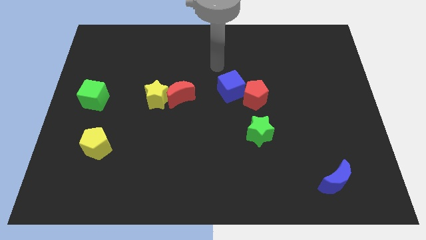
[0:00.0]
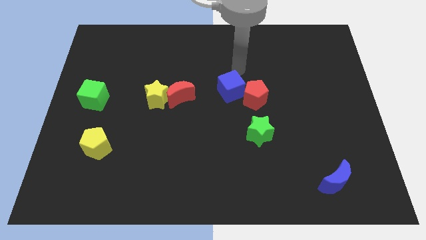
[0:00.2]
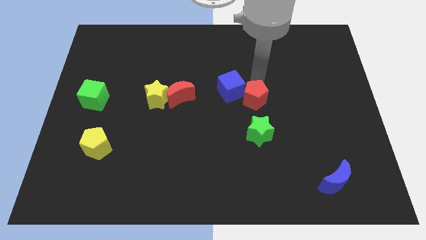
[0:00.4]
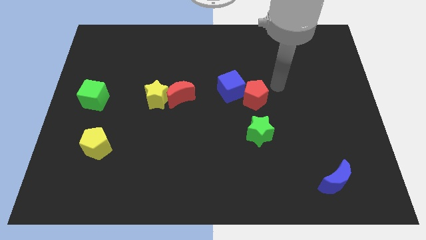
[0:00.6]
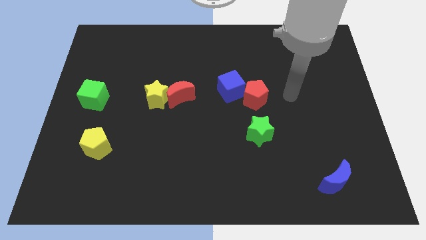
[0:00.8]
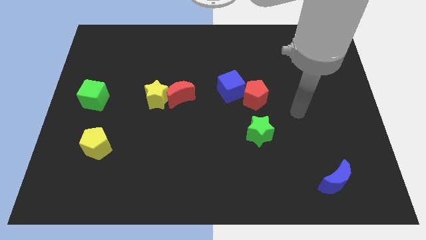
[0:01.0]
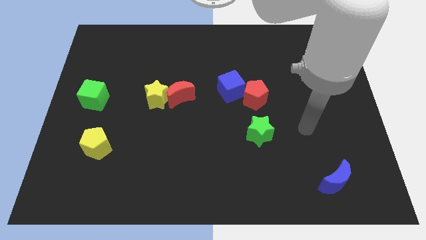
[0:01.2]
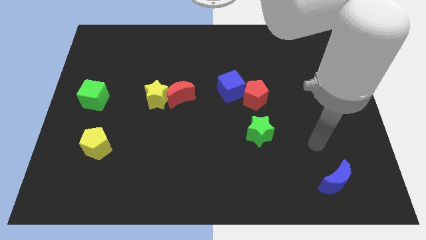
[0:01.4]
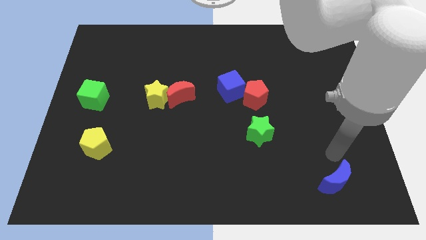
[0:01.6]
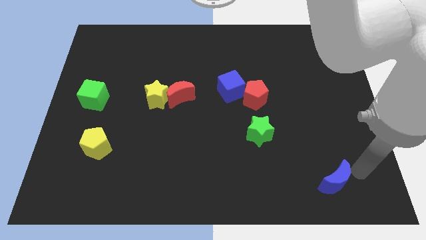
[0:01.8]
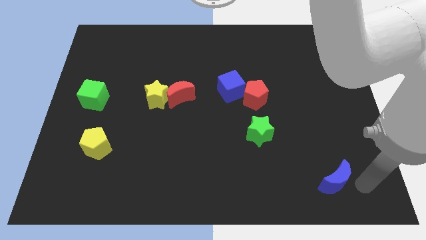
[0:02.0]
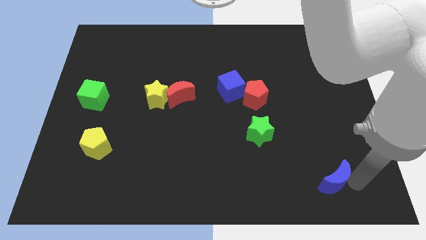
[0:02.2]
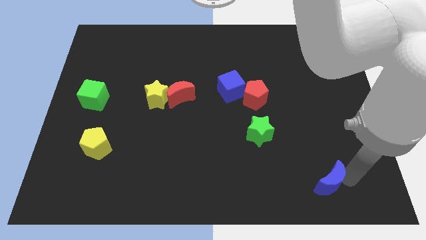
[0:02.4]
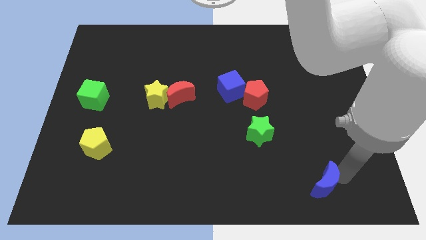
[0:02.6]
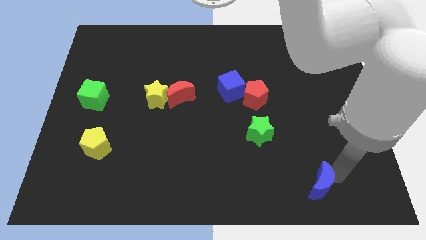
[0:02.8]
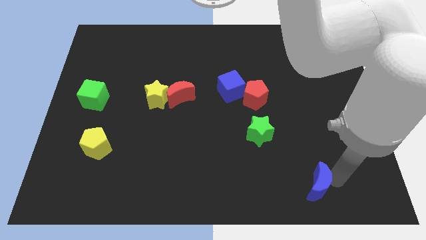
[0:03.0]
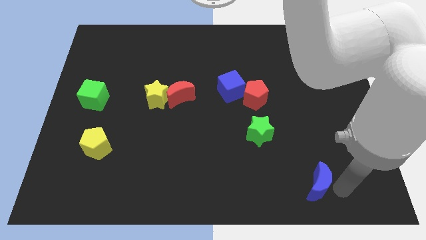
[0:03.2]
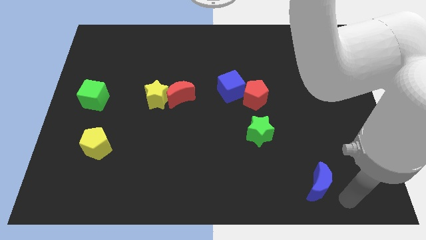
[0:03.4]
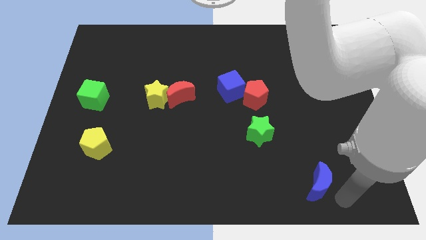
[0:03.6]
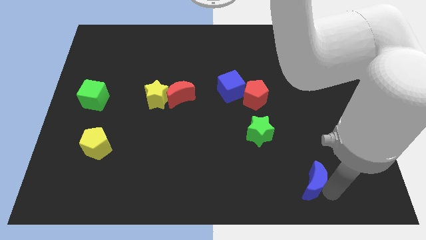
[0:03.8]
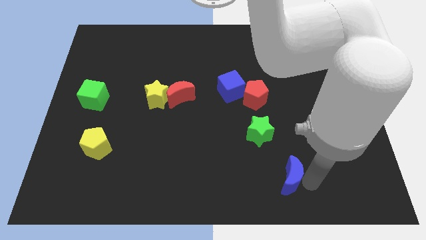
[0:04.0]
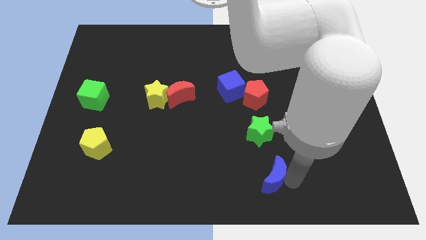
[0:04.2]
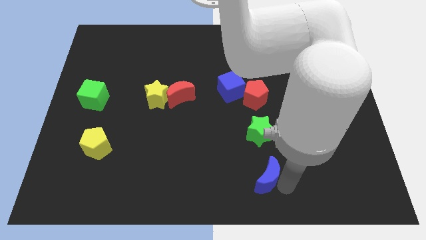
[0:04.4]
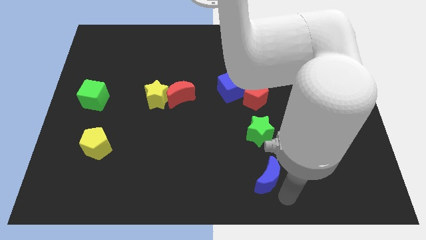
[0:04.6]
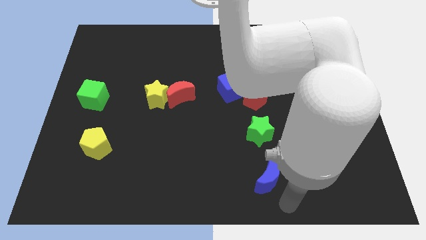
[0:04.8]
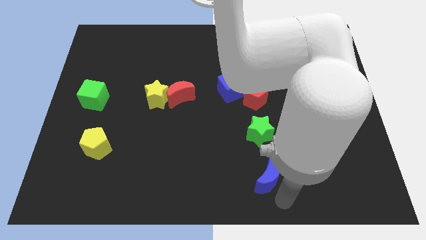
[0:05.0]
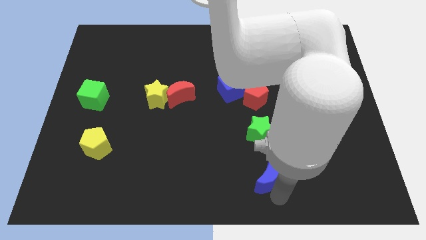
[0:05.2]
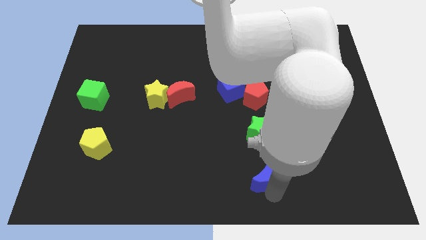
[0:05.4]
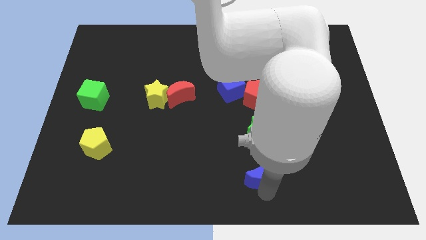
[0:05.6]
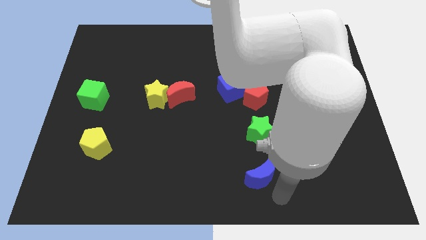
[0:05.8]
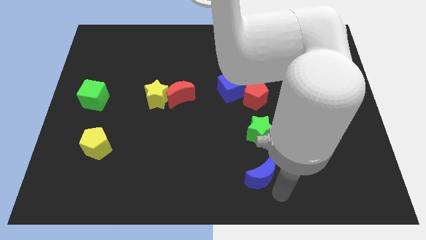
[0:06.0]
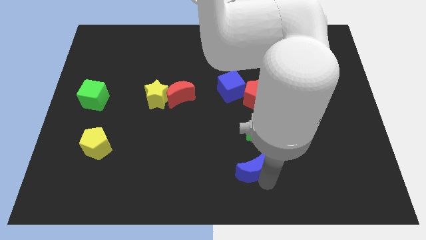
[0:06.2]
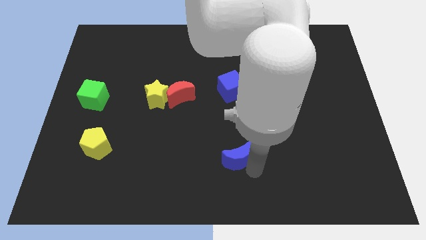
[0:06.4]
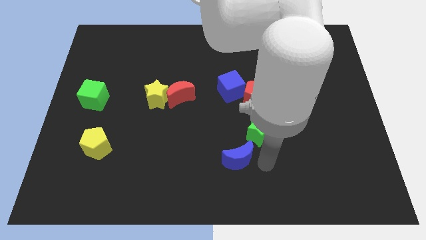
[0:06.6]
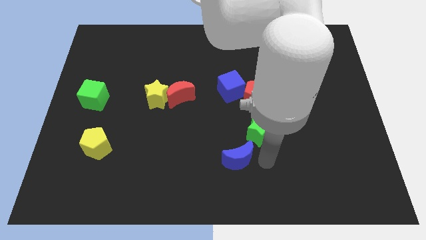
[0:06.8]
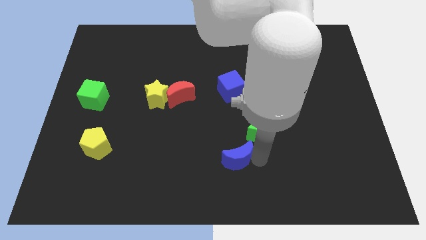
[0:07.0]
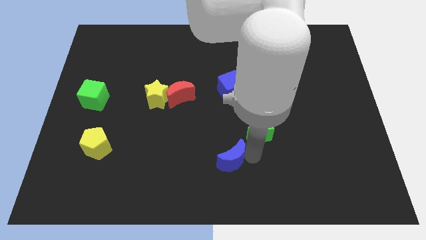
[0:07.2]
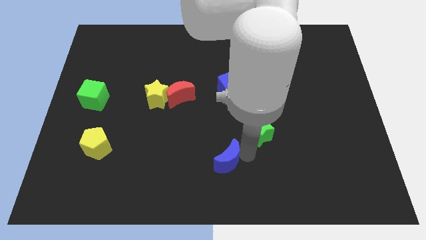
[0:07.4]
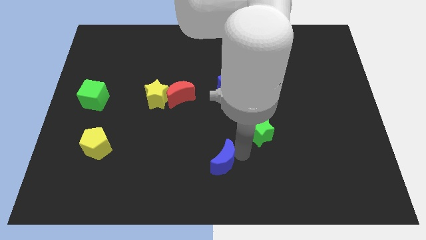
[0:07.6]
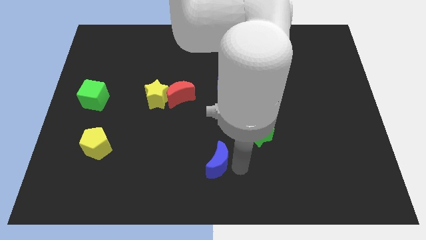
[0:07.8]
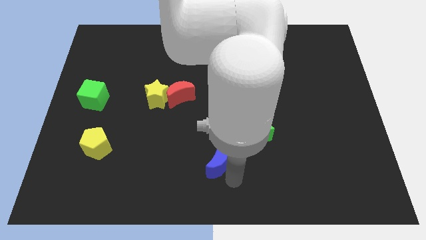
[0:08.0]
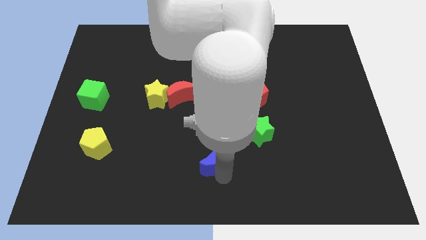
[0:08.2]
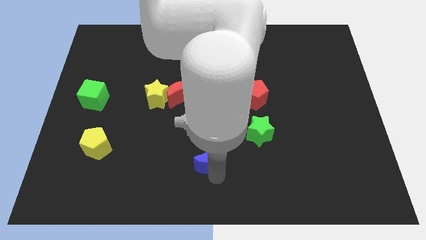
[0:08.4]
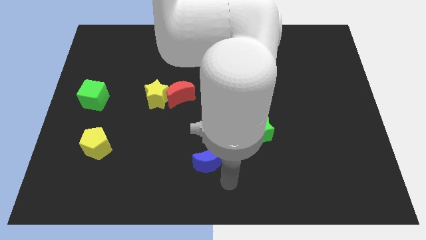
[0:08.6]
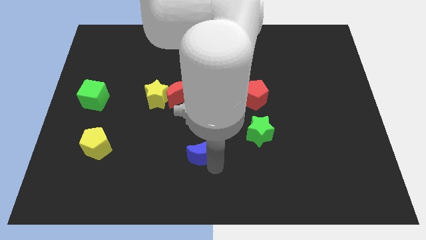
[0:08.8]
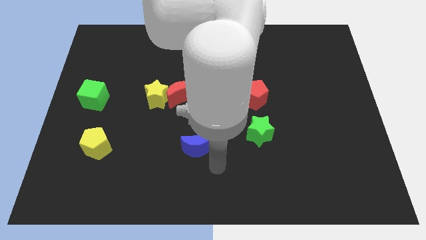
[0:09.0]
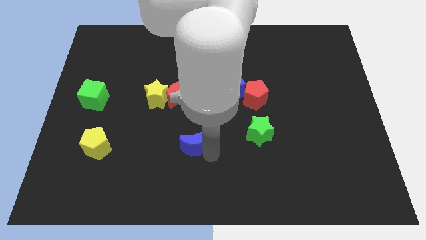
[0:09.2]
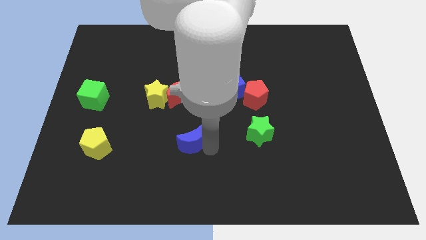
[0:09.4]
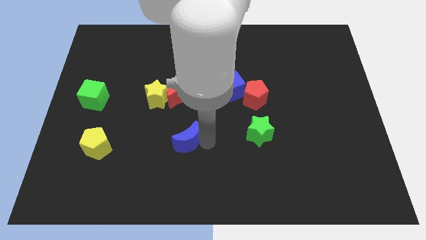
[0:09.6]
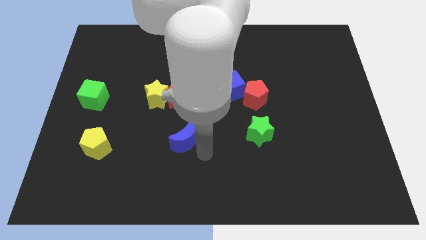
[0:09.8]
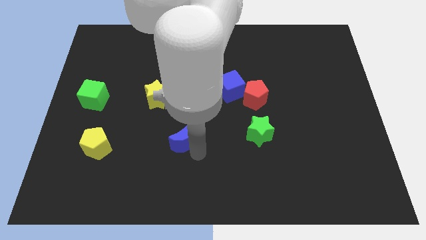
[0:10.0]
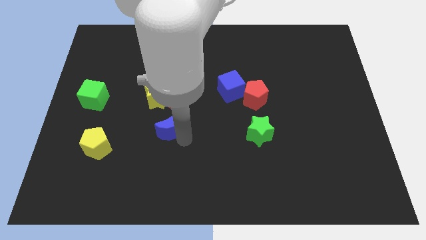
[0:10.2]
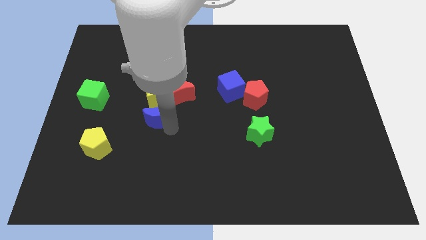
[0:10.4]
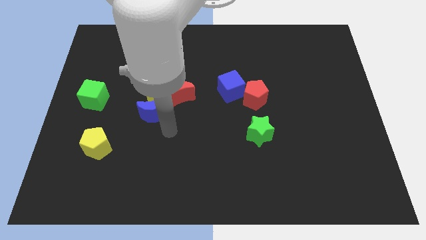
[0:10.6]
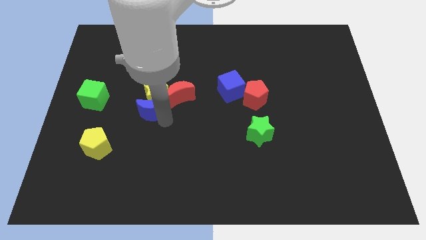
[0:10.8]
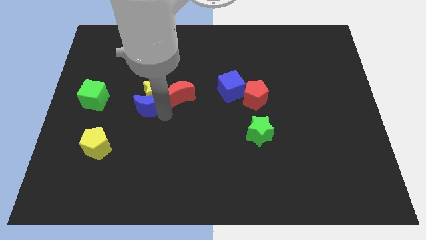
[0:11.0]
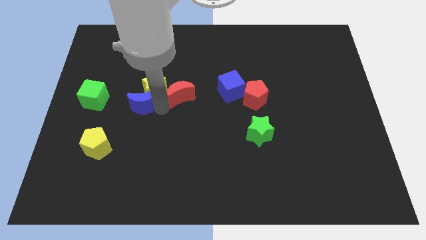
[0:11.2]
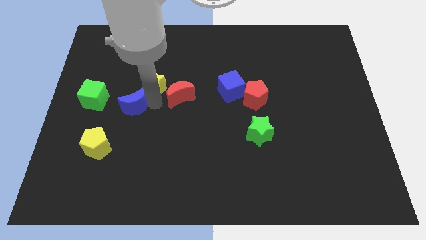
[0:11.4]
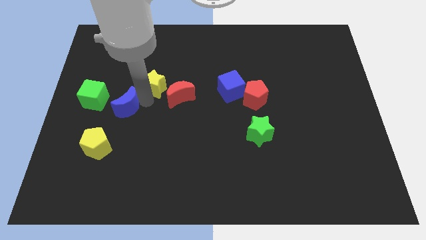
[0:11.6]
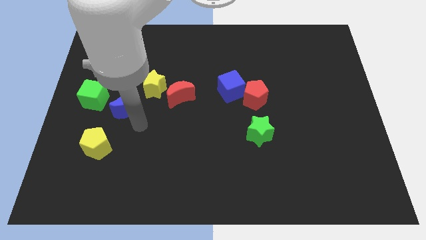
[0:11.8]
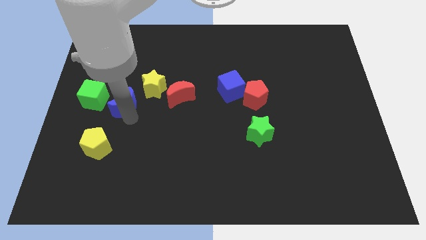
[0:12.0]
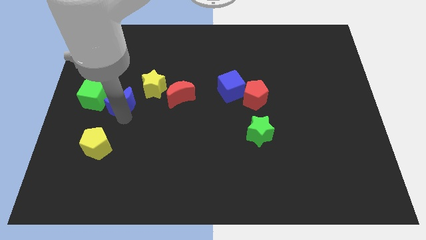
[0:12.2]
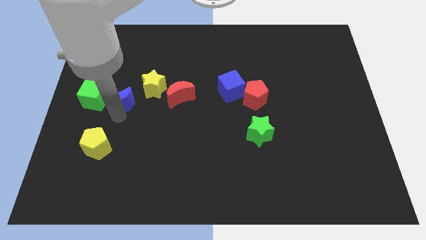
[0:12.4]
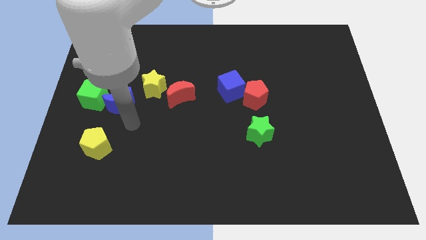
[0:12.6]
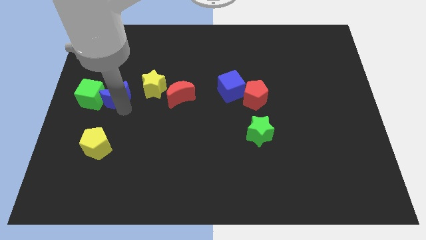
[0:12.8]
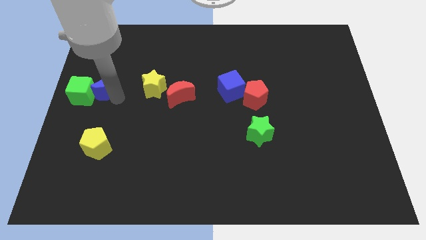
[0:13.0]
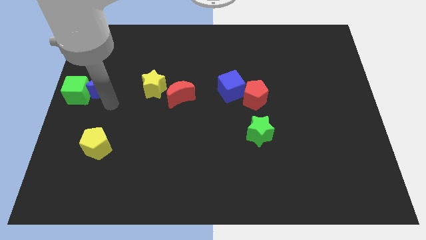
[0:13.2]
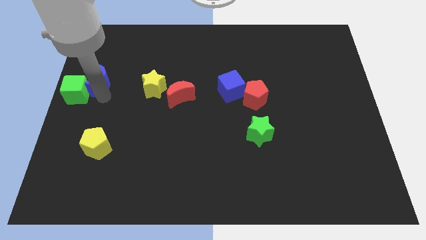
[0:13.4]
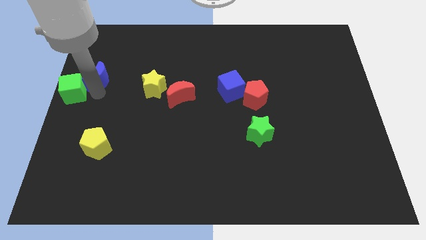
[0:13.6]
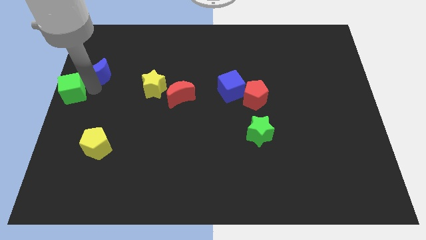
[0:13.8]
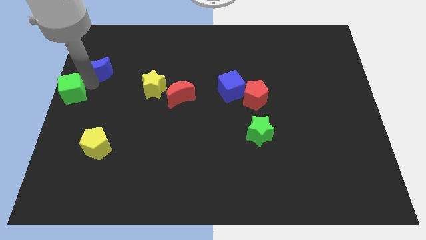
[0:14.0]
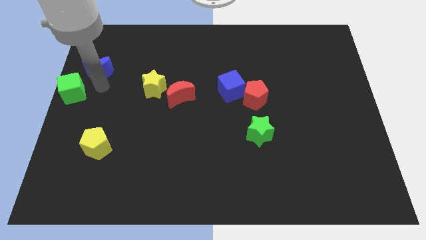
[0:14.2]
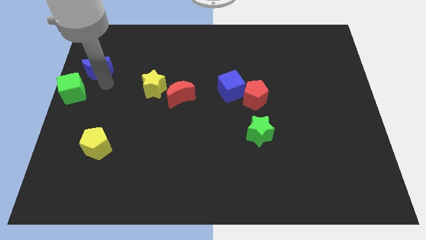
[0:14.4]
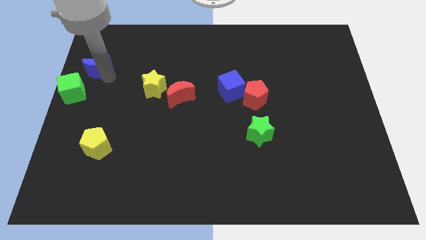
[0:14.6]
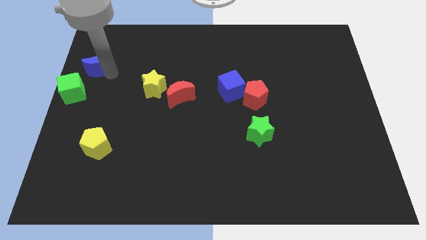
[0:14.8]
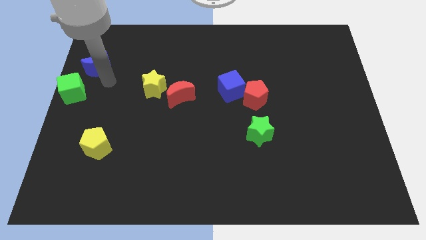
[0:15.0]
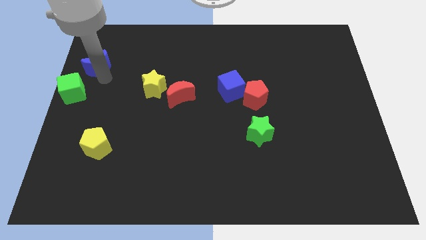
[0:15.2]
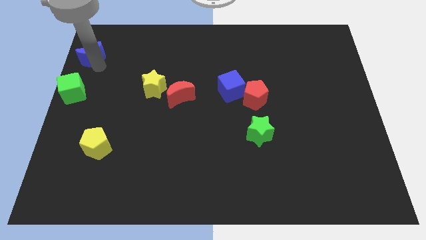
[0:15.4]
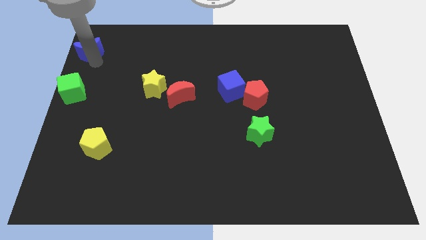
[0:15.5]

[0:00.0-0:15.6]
move the blue moon to the top left corner
